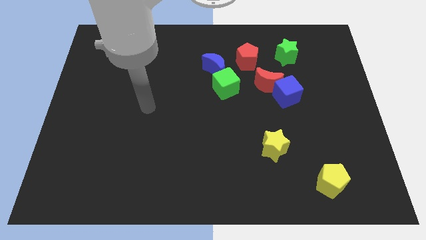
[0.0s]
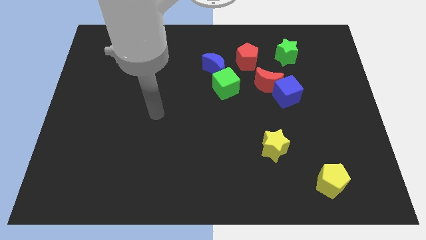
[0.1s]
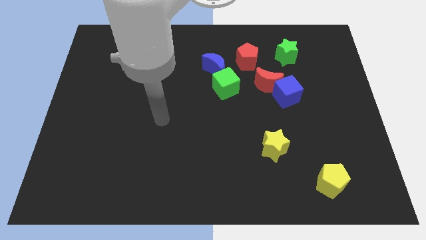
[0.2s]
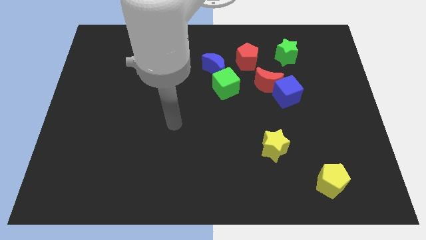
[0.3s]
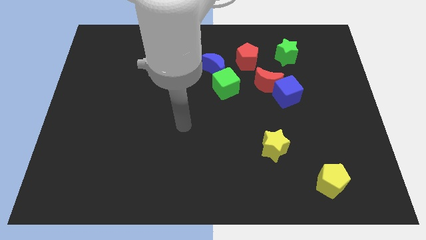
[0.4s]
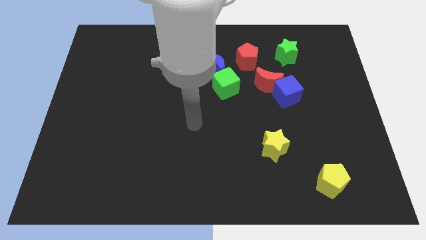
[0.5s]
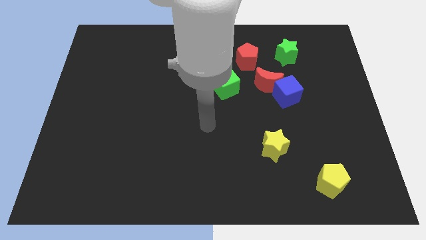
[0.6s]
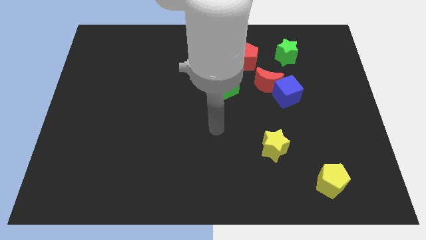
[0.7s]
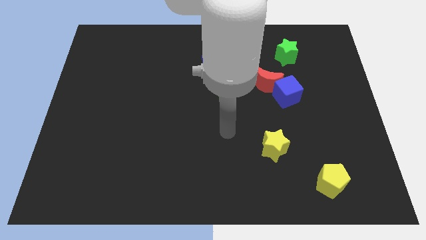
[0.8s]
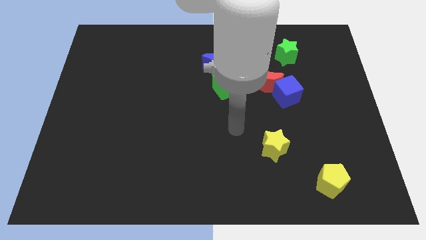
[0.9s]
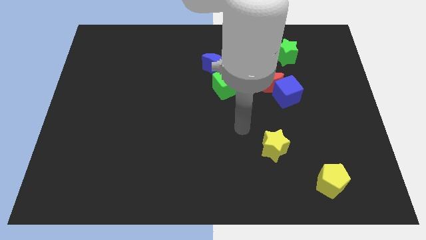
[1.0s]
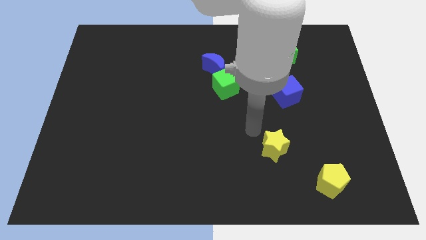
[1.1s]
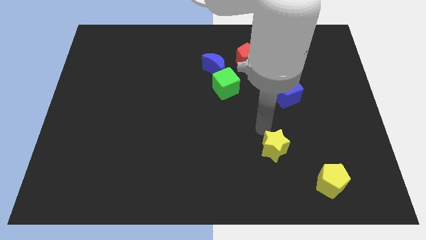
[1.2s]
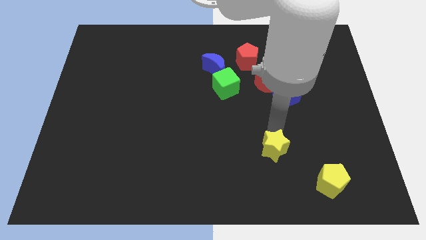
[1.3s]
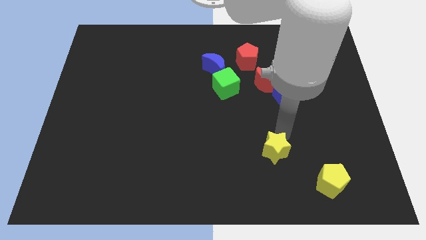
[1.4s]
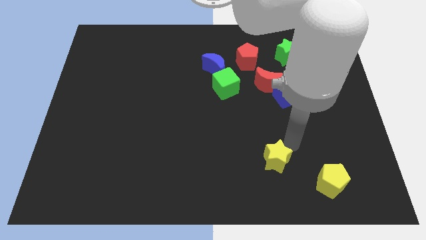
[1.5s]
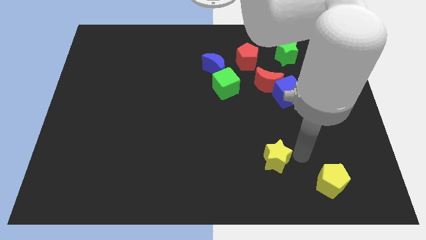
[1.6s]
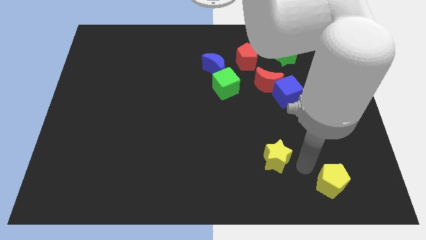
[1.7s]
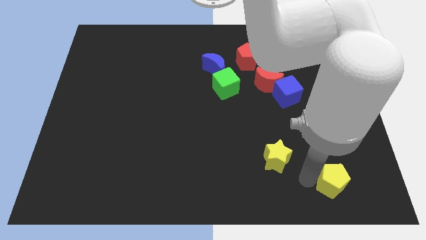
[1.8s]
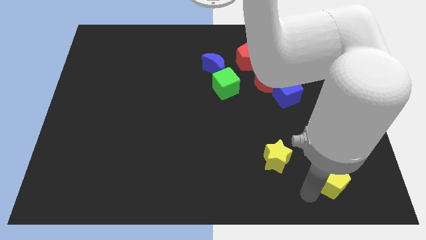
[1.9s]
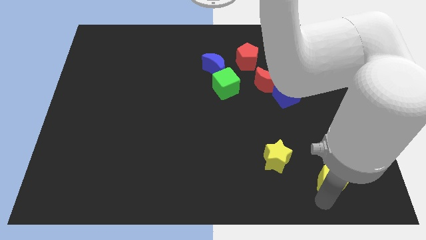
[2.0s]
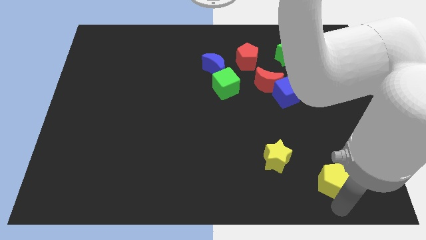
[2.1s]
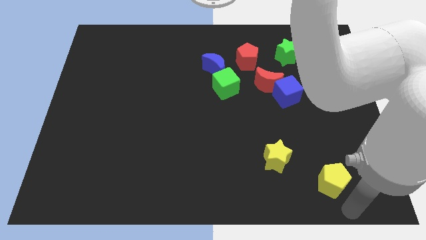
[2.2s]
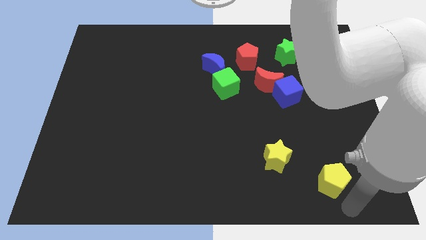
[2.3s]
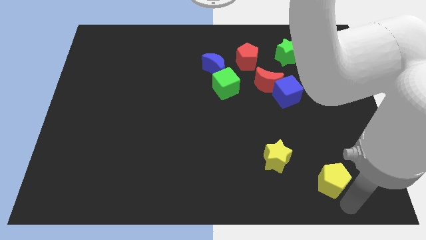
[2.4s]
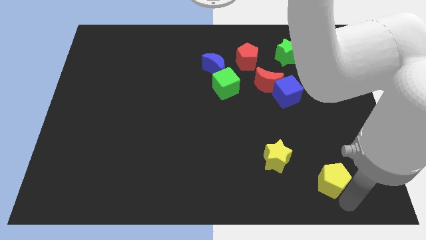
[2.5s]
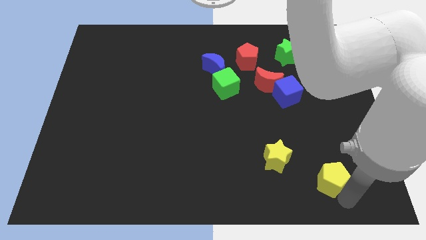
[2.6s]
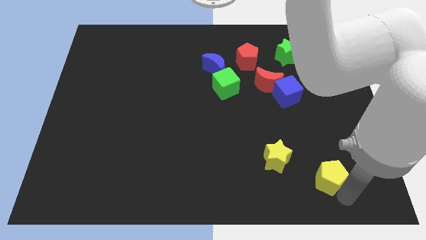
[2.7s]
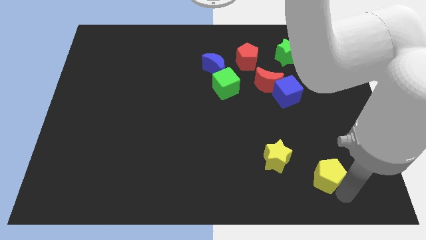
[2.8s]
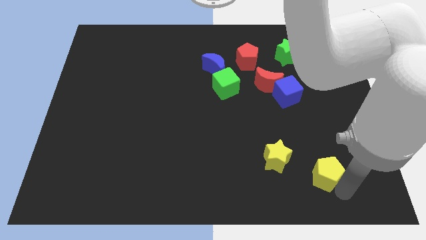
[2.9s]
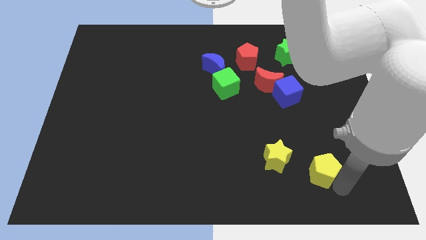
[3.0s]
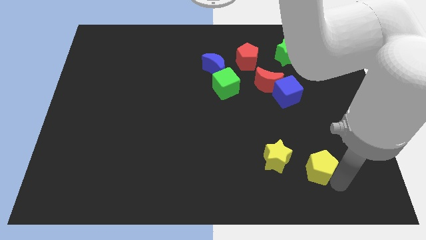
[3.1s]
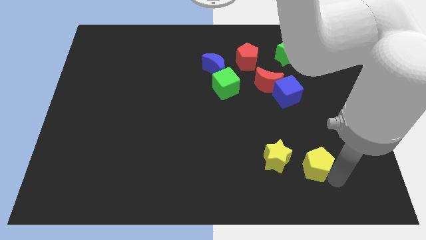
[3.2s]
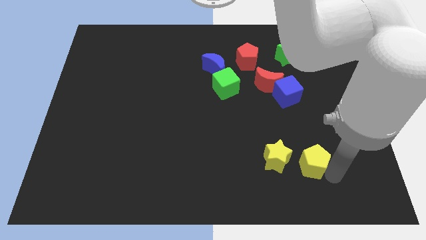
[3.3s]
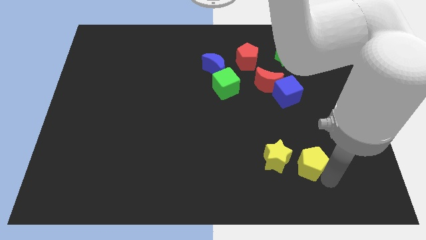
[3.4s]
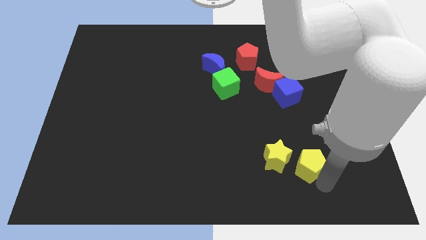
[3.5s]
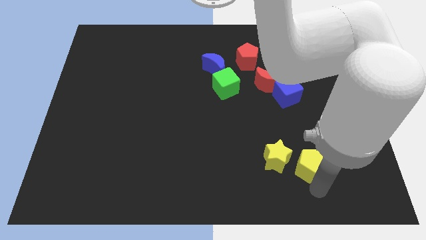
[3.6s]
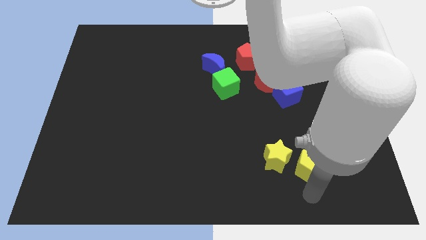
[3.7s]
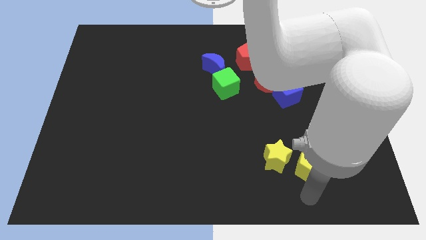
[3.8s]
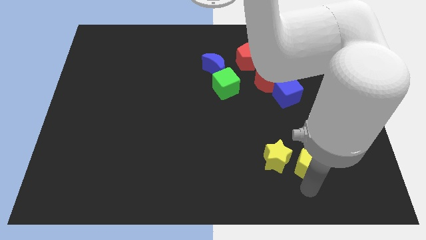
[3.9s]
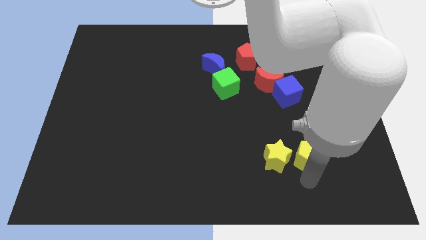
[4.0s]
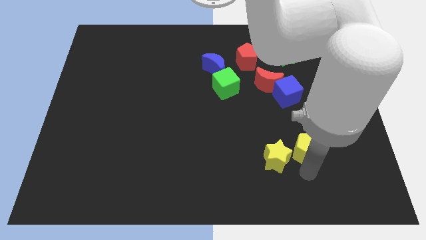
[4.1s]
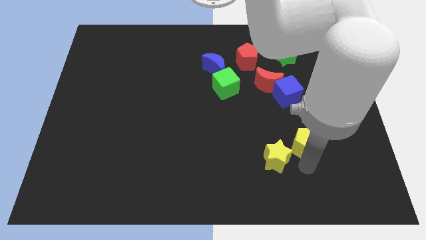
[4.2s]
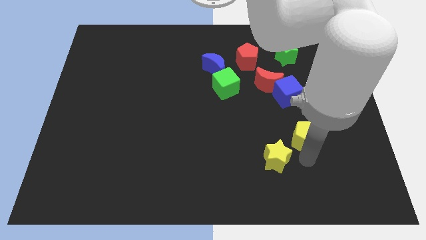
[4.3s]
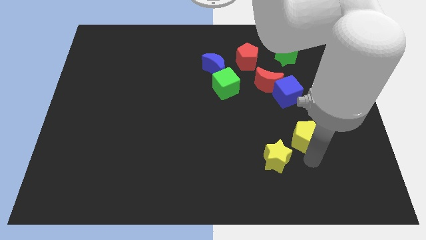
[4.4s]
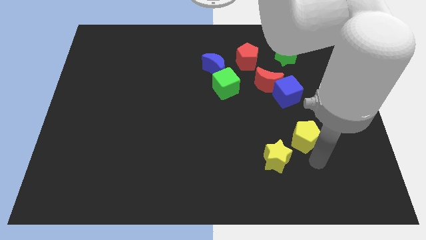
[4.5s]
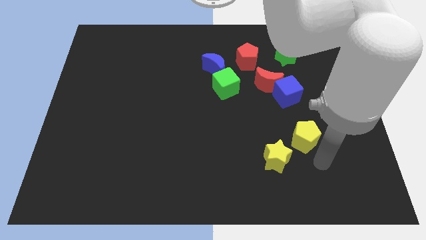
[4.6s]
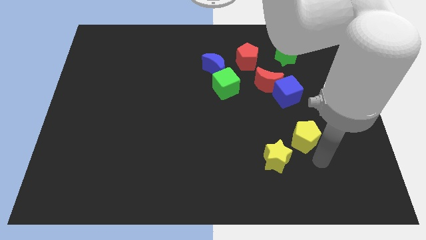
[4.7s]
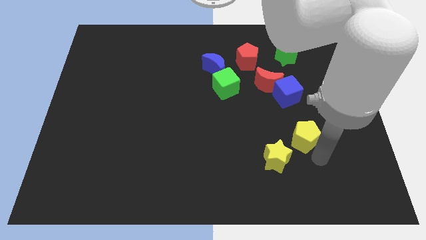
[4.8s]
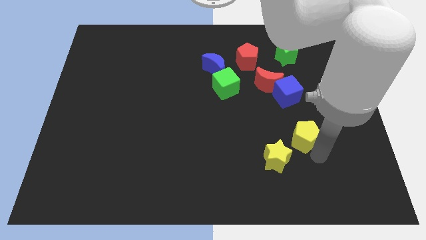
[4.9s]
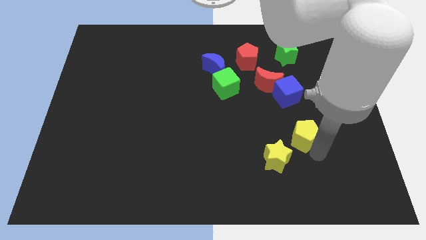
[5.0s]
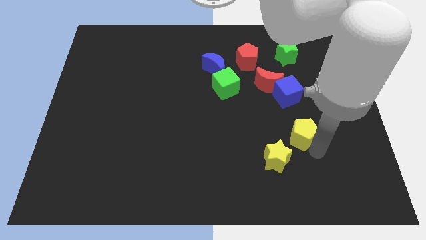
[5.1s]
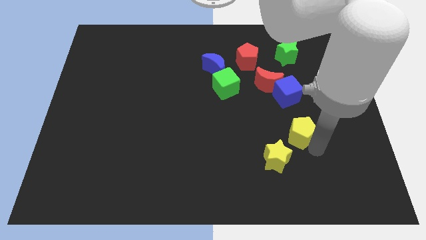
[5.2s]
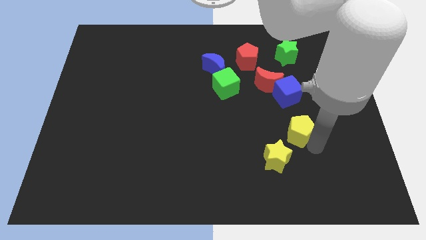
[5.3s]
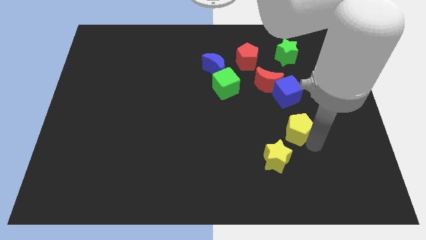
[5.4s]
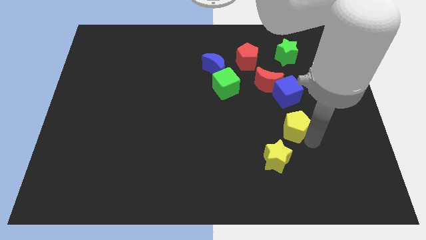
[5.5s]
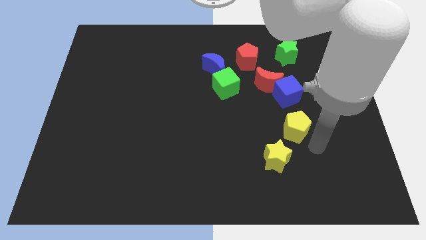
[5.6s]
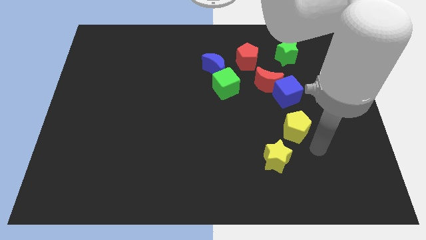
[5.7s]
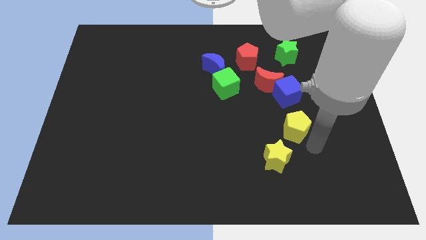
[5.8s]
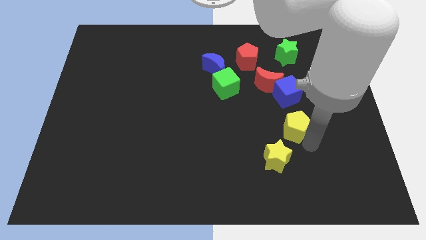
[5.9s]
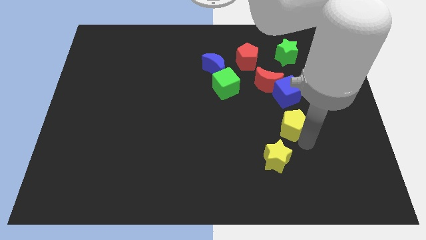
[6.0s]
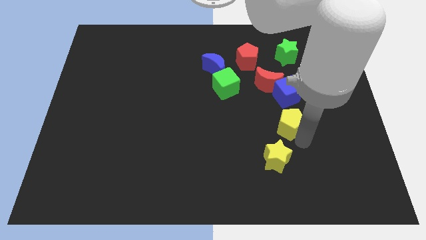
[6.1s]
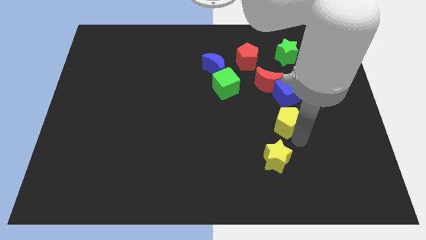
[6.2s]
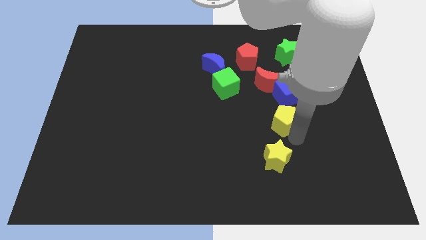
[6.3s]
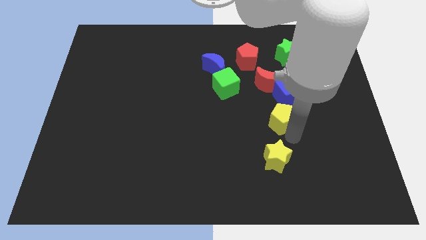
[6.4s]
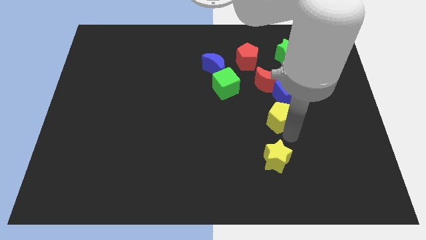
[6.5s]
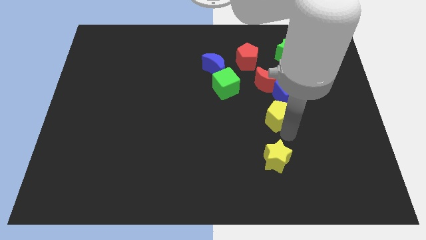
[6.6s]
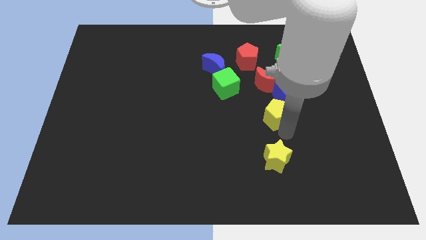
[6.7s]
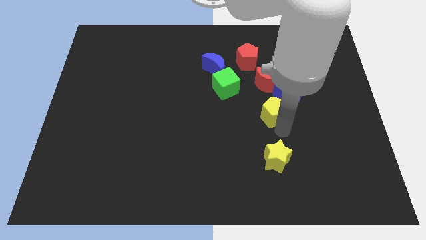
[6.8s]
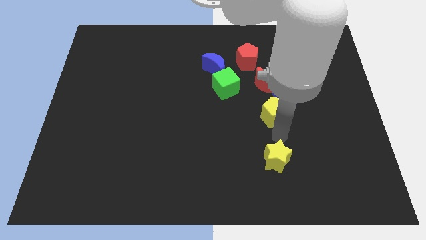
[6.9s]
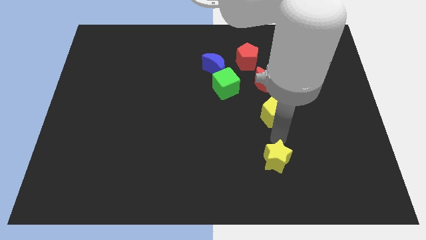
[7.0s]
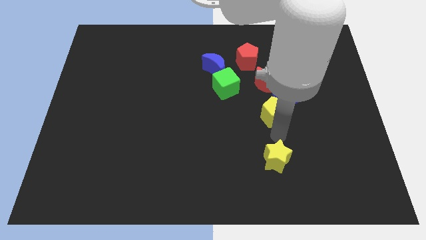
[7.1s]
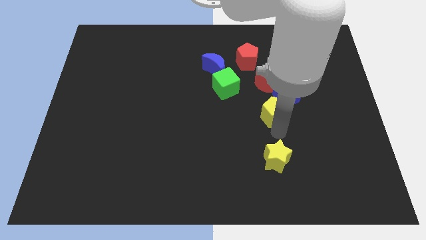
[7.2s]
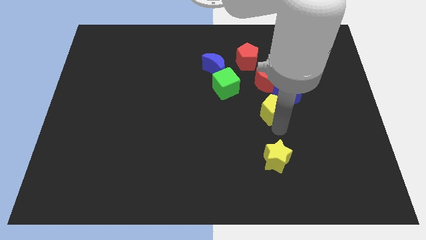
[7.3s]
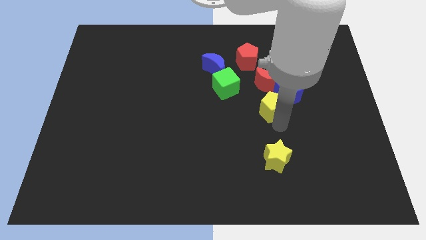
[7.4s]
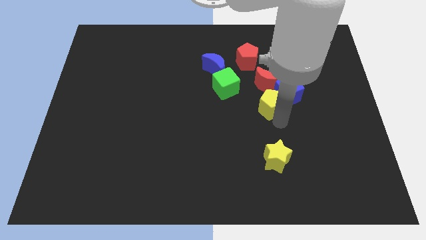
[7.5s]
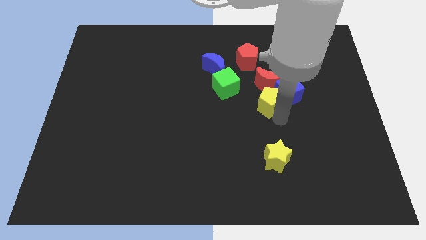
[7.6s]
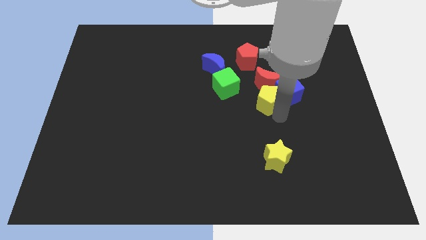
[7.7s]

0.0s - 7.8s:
push the yellow pentagon close to the red moon
